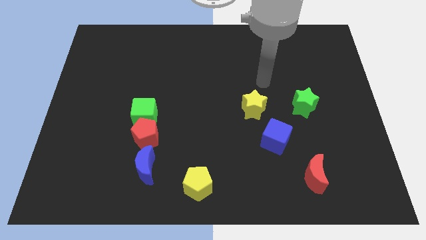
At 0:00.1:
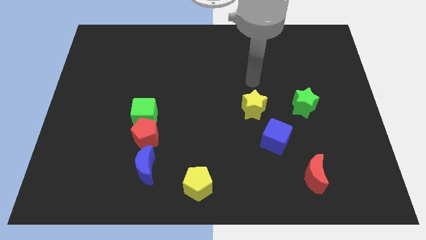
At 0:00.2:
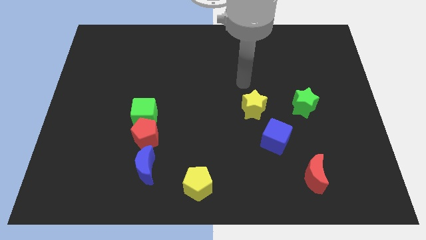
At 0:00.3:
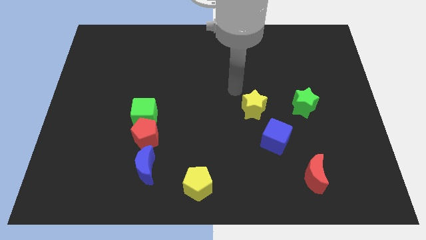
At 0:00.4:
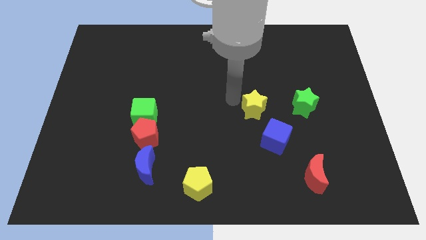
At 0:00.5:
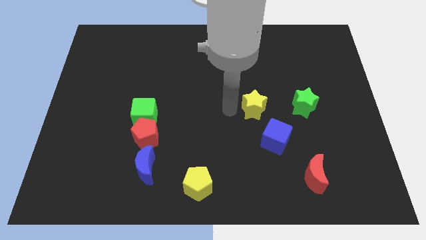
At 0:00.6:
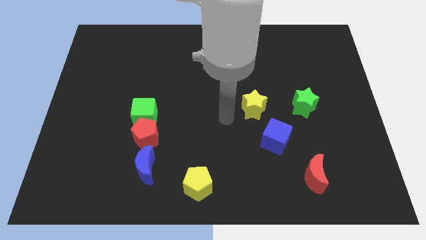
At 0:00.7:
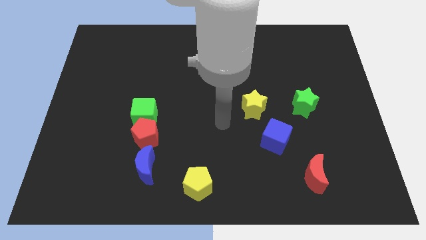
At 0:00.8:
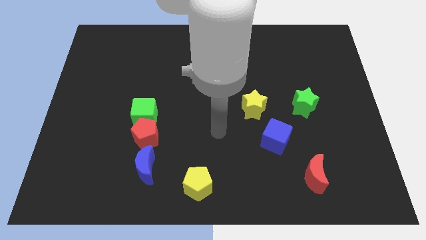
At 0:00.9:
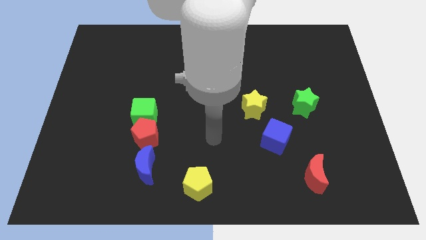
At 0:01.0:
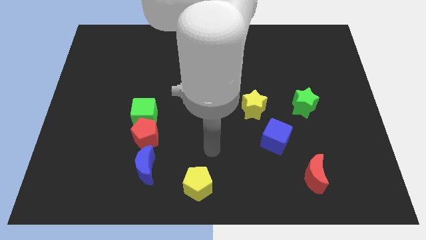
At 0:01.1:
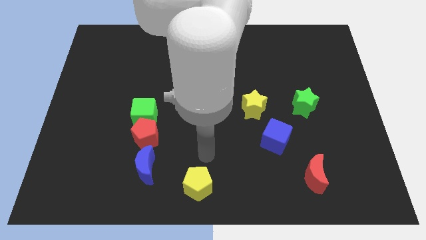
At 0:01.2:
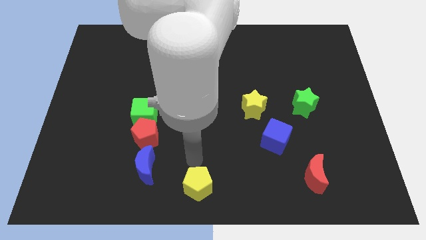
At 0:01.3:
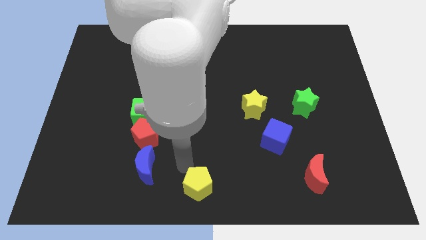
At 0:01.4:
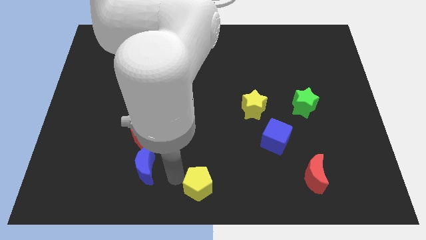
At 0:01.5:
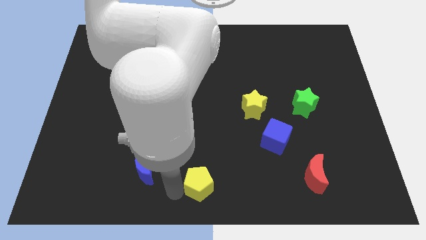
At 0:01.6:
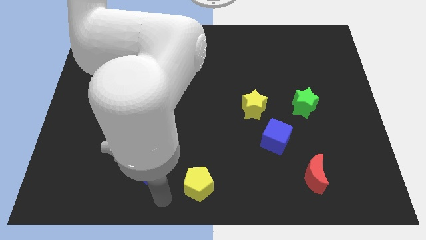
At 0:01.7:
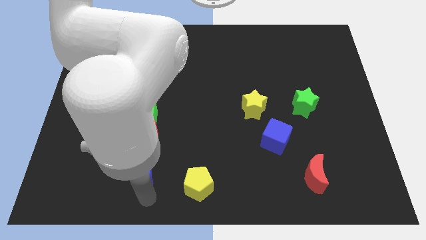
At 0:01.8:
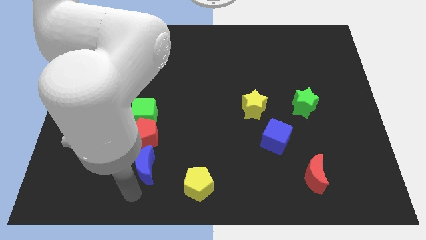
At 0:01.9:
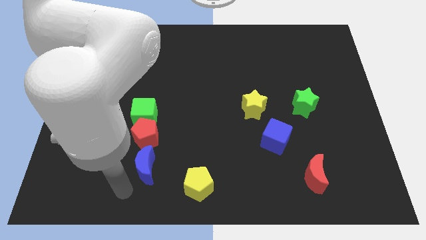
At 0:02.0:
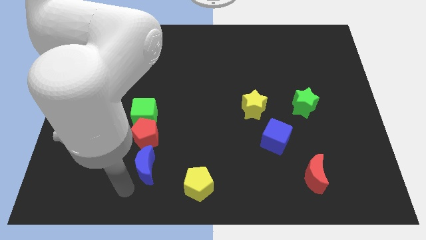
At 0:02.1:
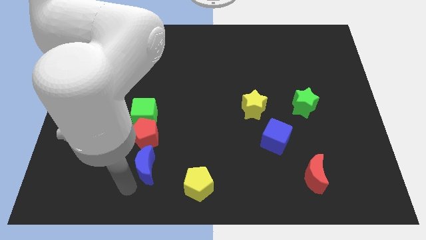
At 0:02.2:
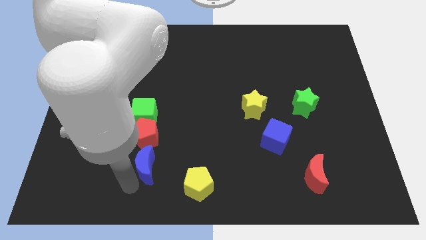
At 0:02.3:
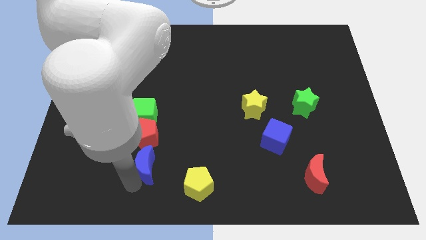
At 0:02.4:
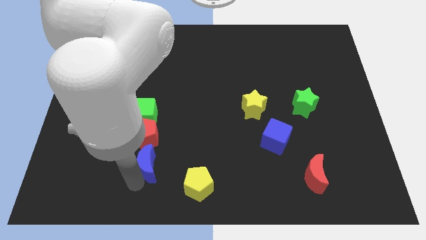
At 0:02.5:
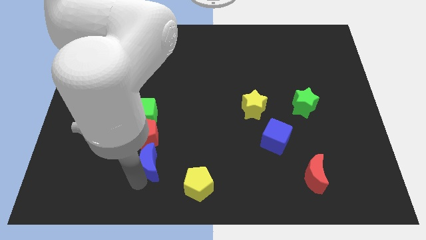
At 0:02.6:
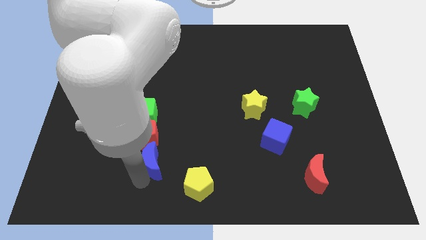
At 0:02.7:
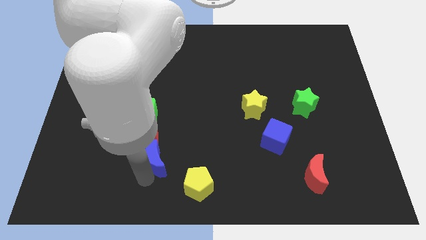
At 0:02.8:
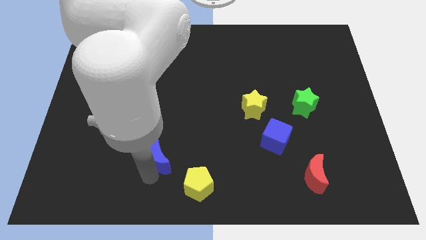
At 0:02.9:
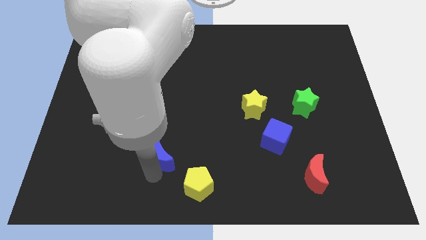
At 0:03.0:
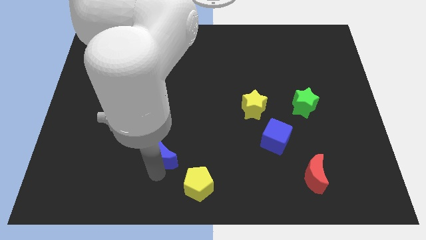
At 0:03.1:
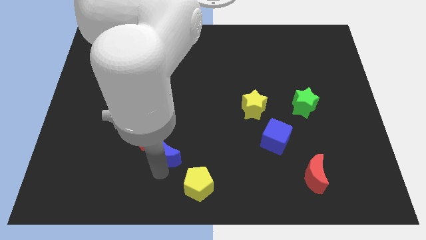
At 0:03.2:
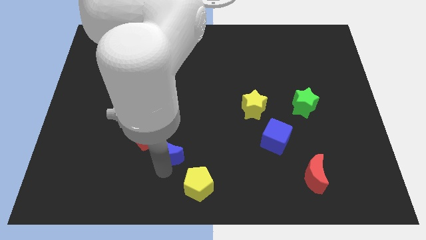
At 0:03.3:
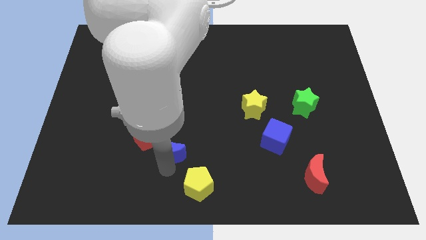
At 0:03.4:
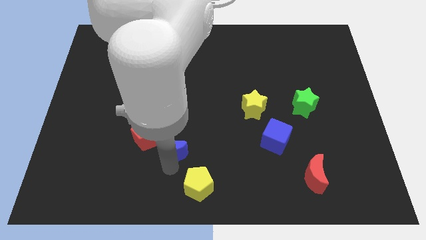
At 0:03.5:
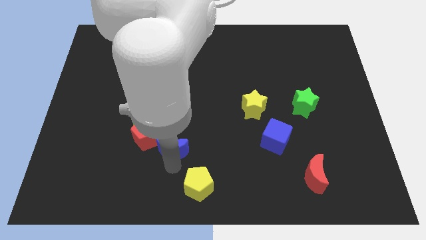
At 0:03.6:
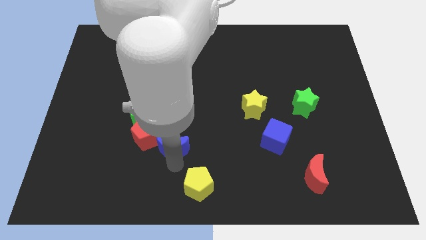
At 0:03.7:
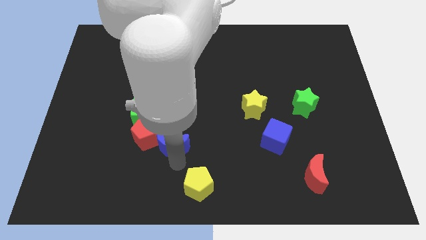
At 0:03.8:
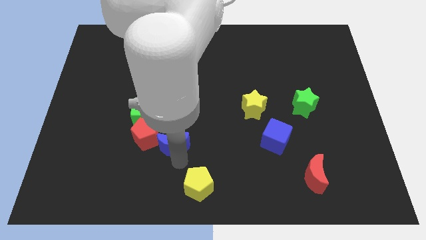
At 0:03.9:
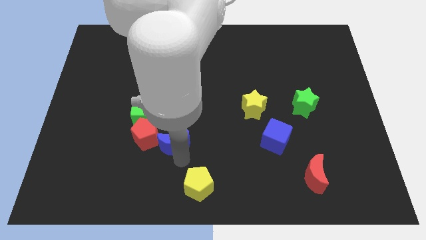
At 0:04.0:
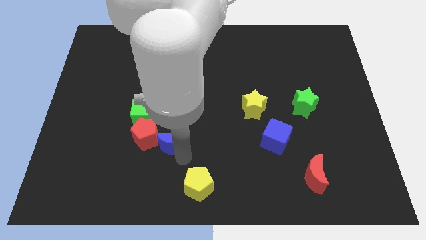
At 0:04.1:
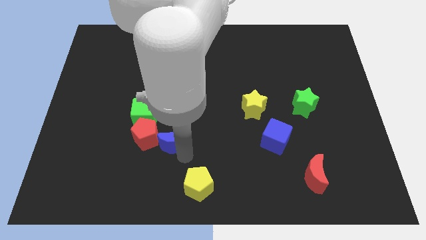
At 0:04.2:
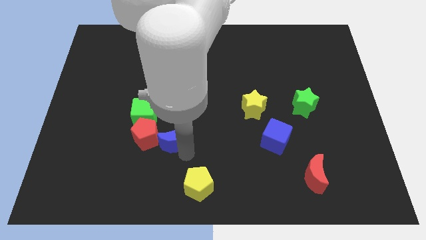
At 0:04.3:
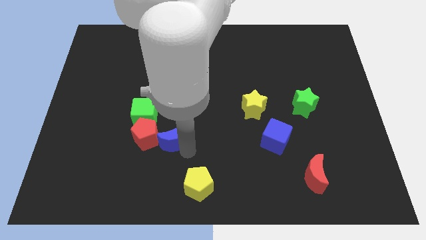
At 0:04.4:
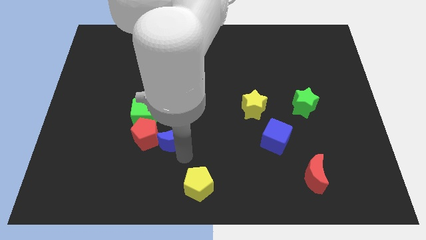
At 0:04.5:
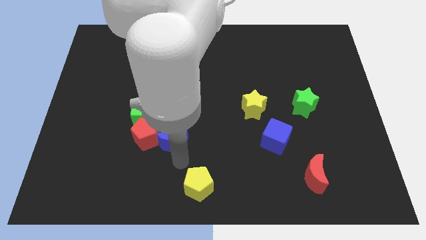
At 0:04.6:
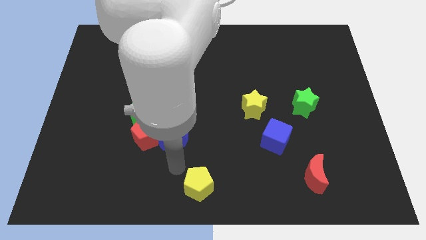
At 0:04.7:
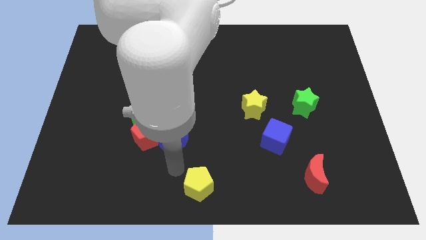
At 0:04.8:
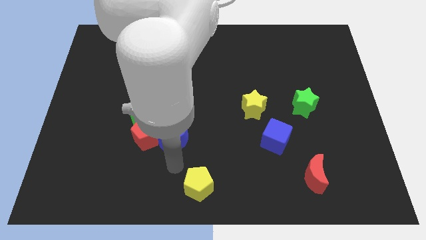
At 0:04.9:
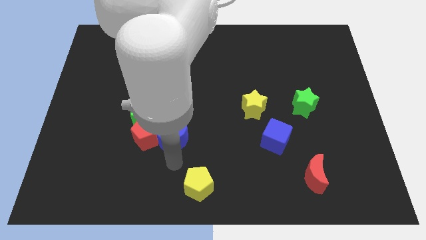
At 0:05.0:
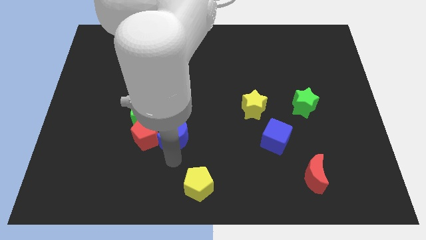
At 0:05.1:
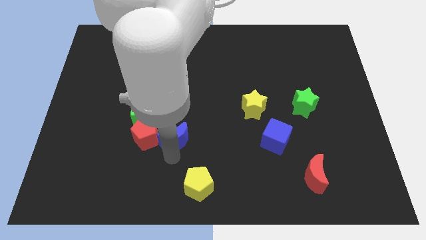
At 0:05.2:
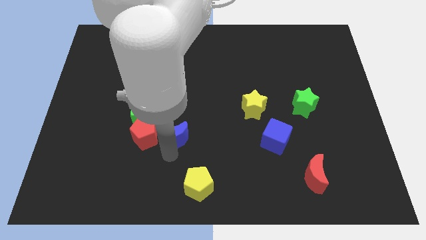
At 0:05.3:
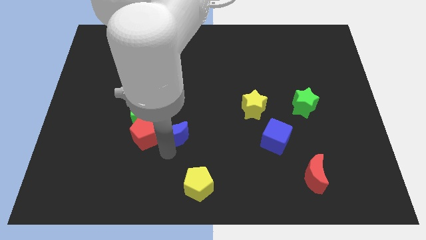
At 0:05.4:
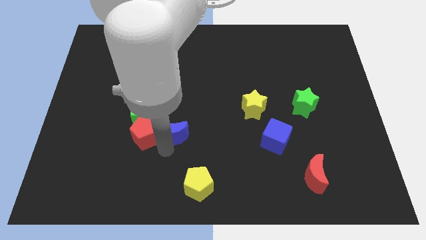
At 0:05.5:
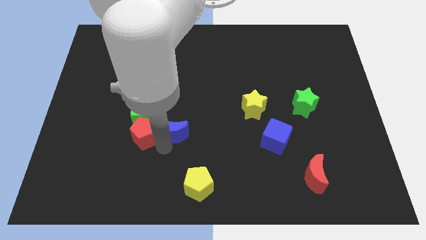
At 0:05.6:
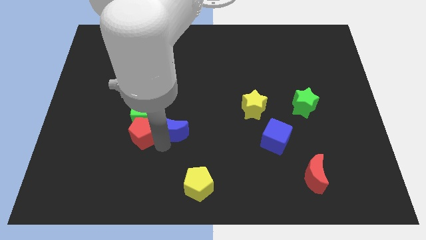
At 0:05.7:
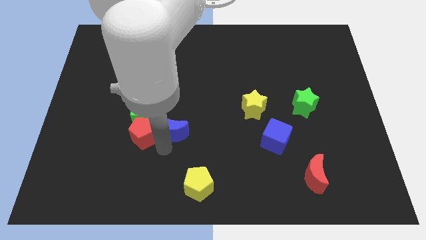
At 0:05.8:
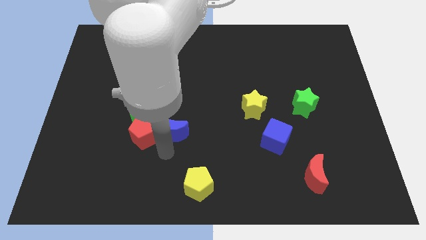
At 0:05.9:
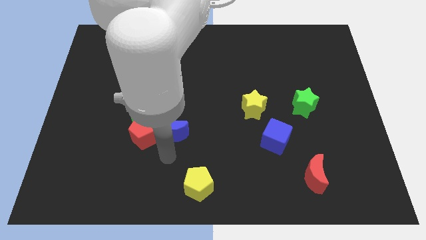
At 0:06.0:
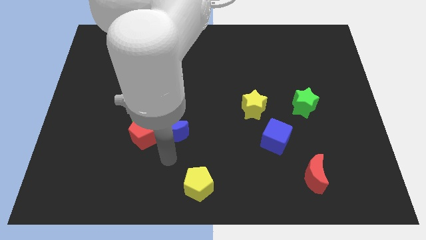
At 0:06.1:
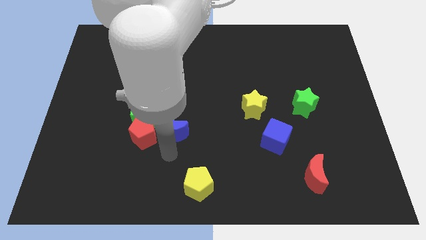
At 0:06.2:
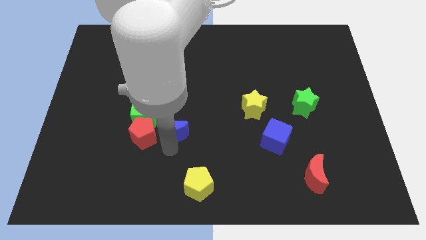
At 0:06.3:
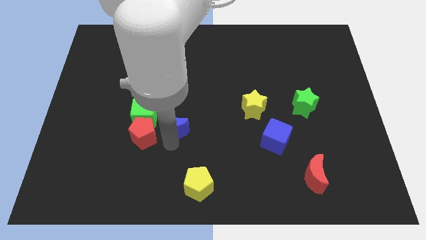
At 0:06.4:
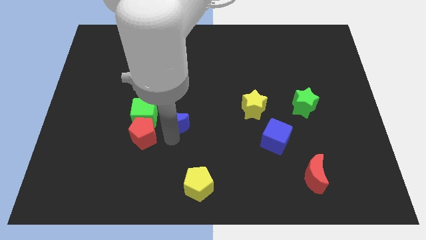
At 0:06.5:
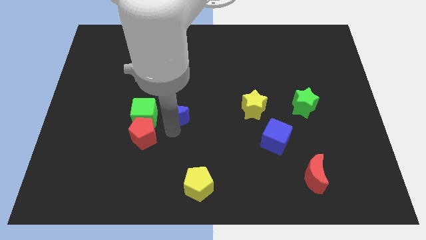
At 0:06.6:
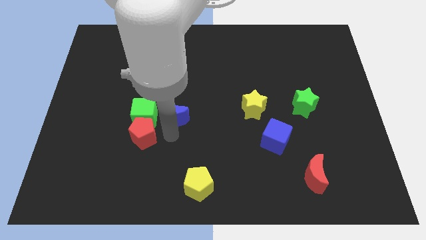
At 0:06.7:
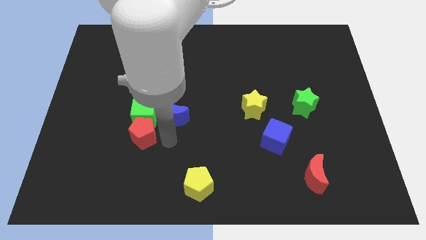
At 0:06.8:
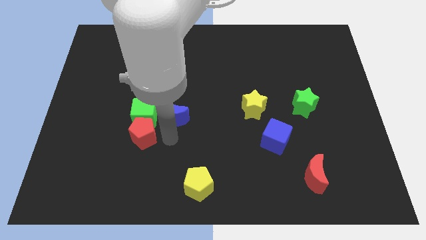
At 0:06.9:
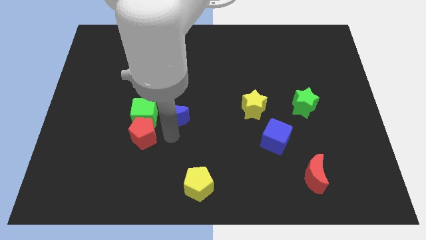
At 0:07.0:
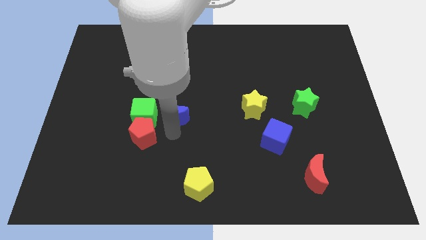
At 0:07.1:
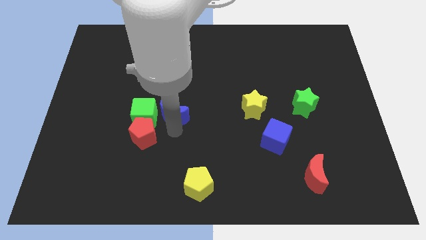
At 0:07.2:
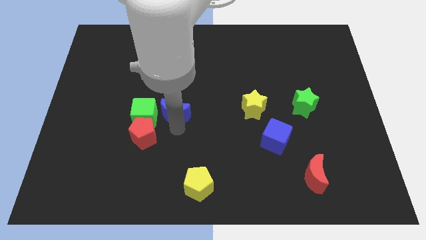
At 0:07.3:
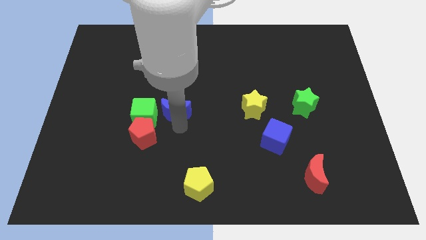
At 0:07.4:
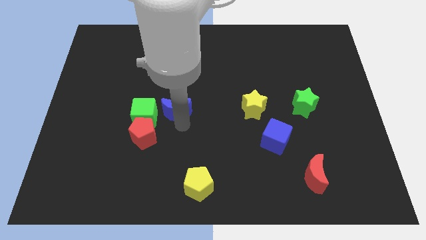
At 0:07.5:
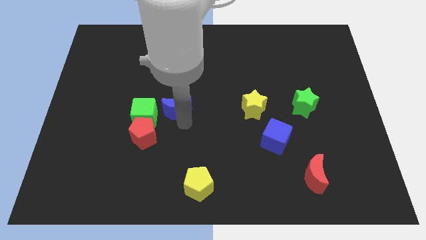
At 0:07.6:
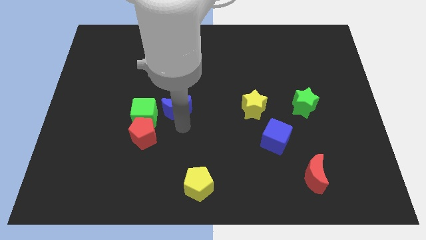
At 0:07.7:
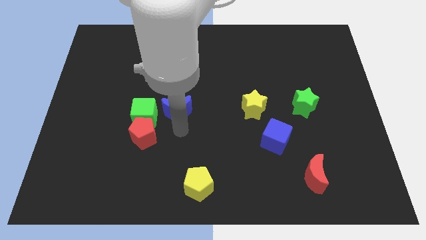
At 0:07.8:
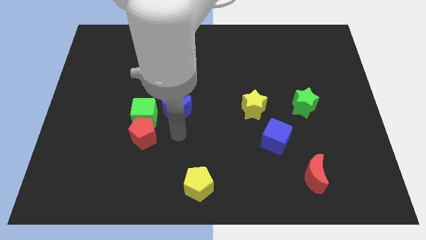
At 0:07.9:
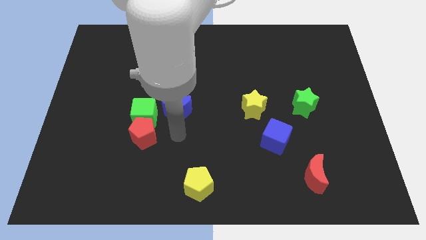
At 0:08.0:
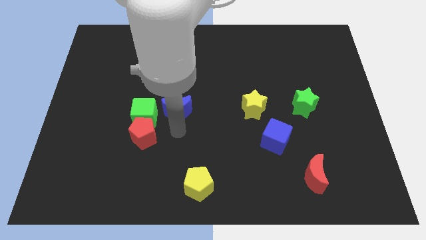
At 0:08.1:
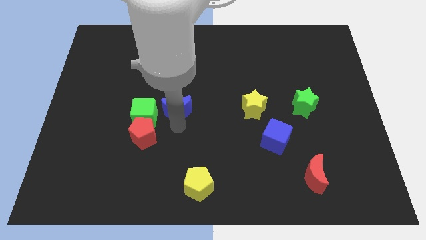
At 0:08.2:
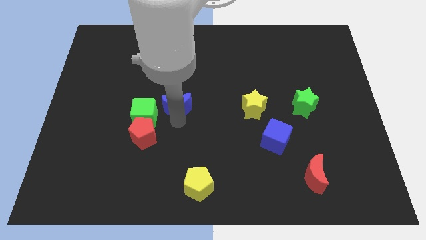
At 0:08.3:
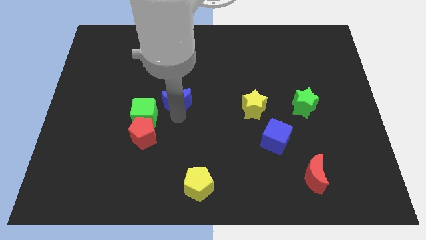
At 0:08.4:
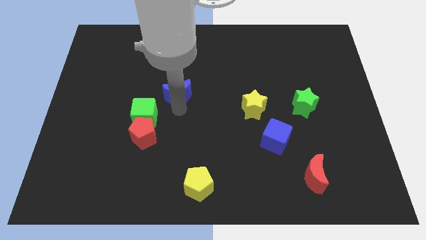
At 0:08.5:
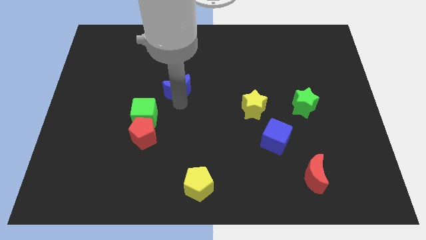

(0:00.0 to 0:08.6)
slide the blue moon upwards
